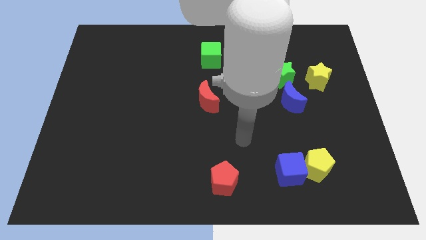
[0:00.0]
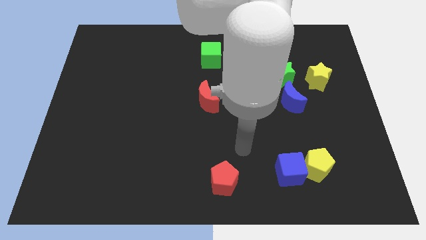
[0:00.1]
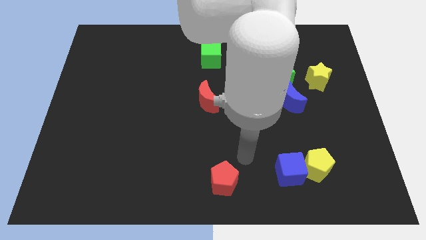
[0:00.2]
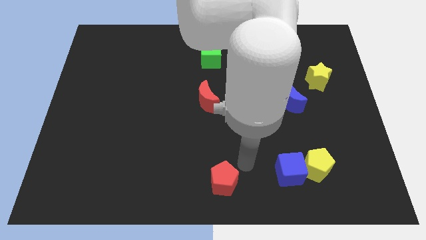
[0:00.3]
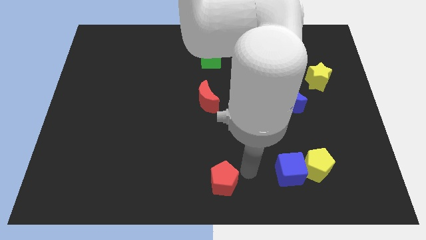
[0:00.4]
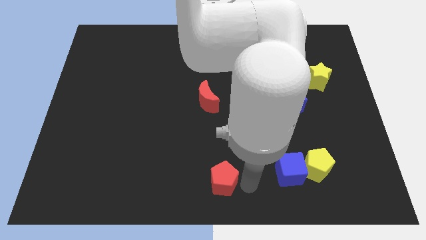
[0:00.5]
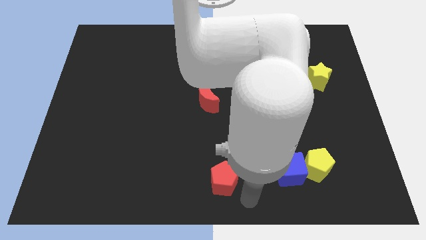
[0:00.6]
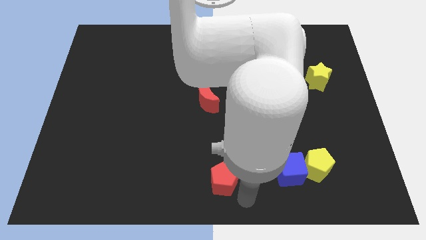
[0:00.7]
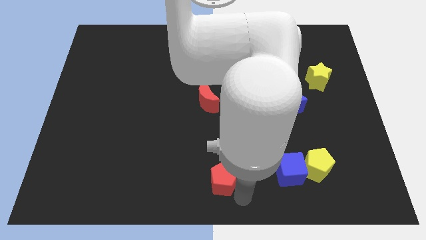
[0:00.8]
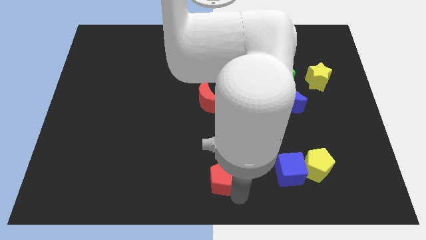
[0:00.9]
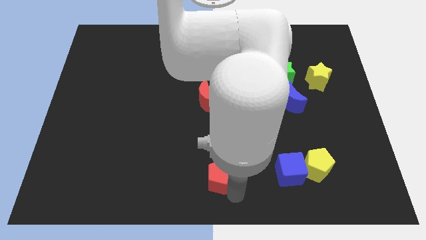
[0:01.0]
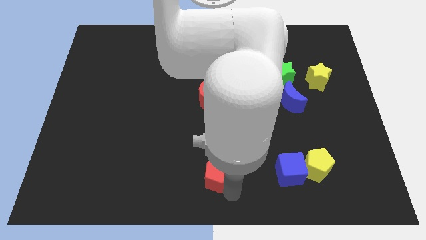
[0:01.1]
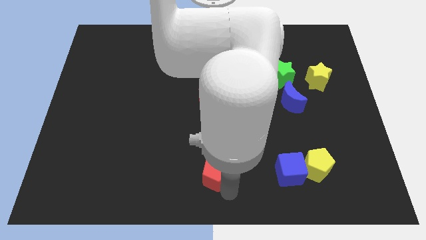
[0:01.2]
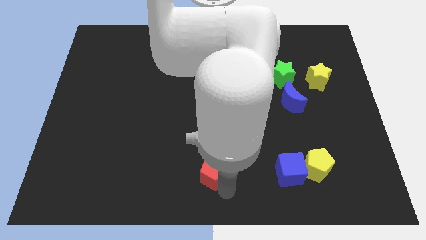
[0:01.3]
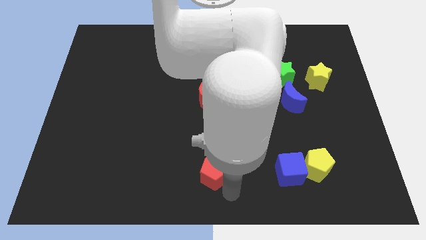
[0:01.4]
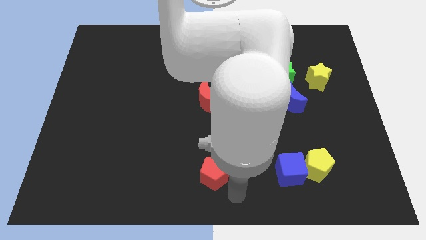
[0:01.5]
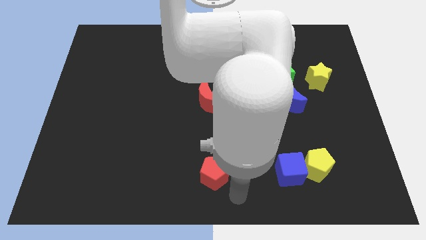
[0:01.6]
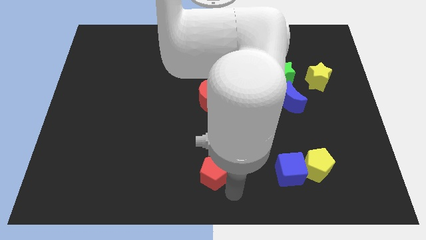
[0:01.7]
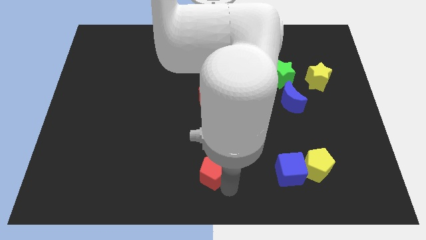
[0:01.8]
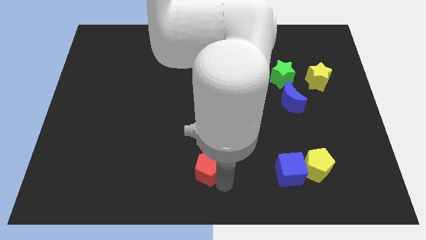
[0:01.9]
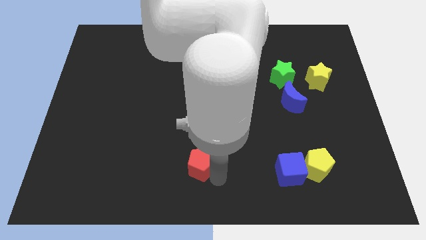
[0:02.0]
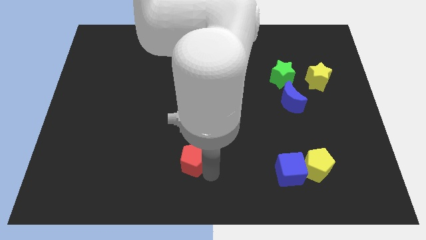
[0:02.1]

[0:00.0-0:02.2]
slide the red pentagon a bit upwards and to the left diagonally

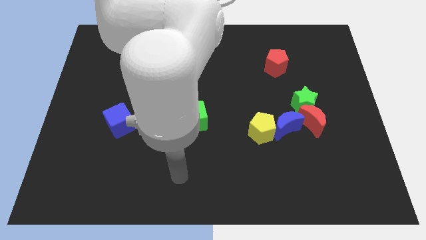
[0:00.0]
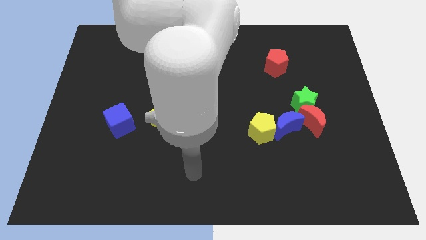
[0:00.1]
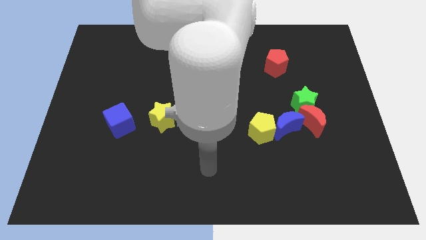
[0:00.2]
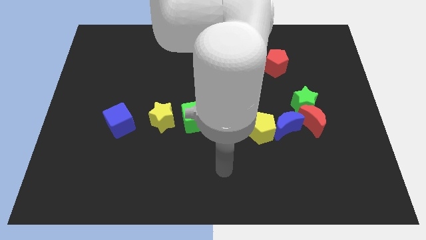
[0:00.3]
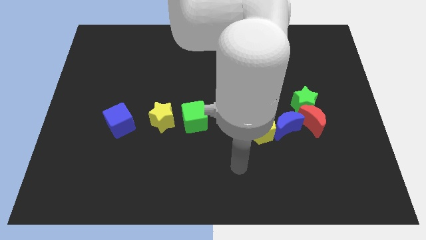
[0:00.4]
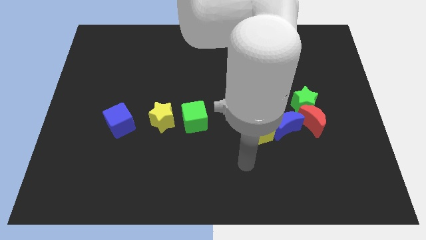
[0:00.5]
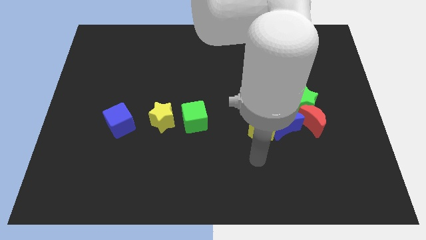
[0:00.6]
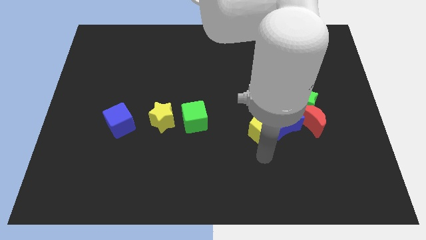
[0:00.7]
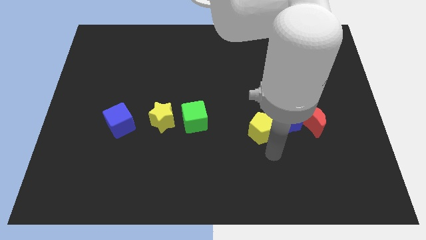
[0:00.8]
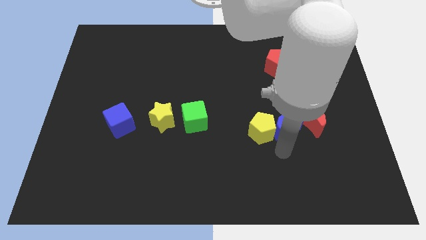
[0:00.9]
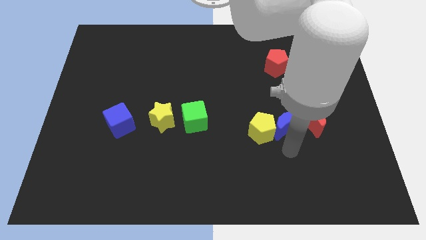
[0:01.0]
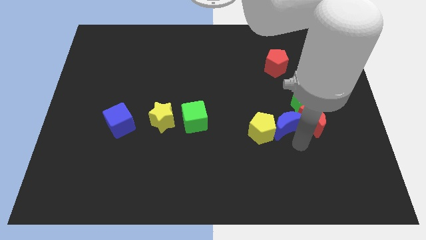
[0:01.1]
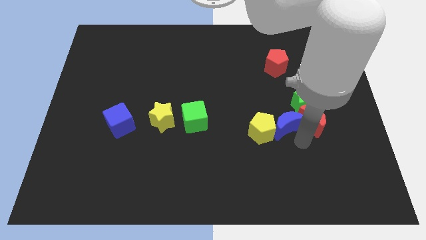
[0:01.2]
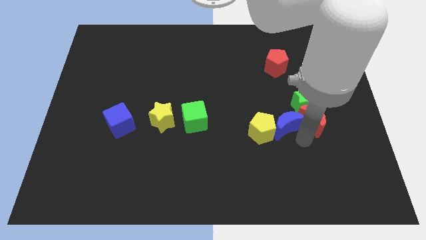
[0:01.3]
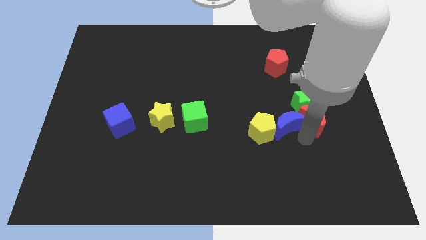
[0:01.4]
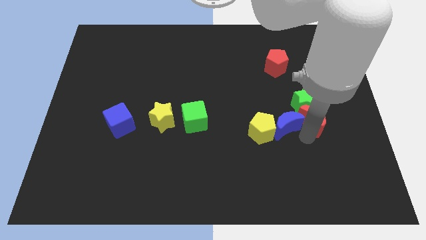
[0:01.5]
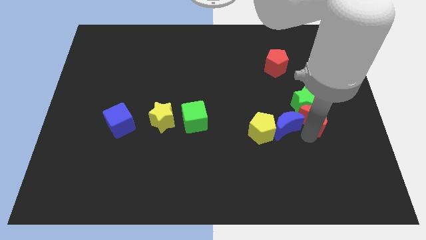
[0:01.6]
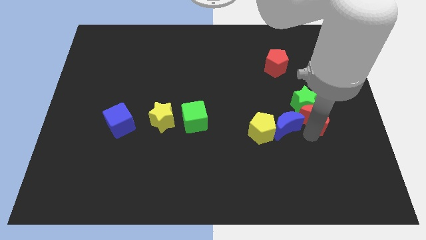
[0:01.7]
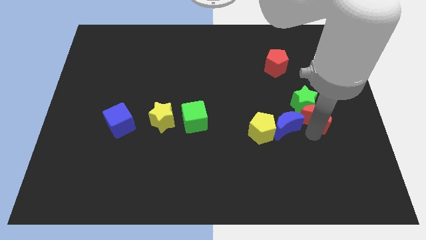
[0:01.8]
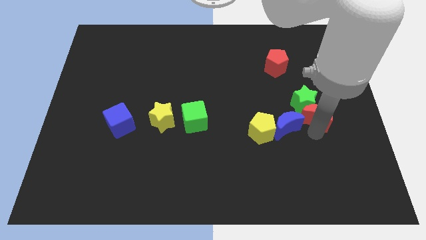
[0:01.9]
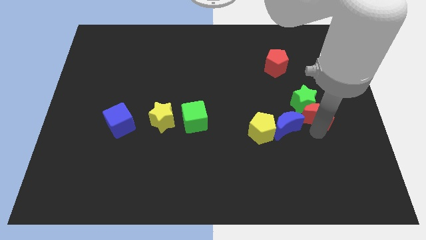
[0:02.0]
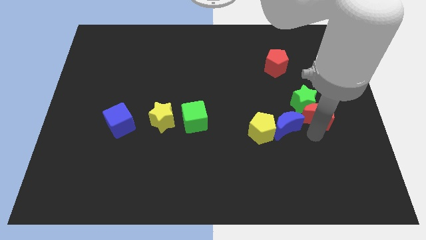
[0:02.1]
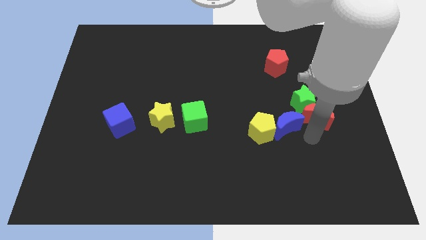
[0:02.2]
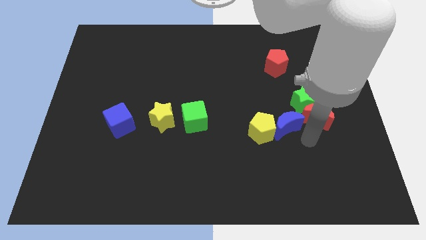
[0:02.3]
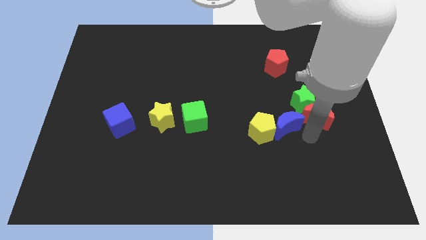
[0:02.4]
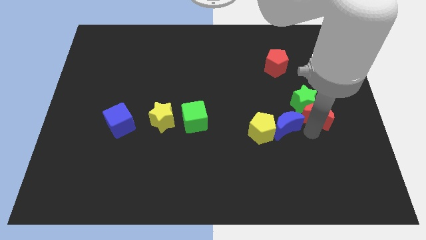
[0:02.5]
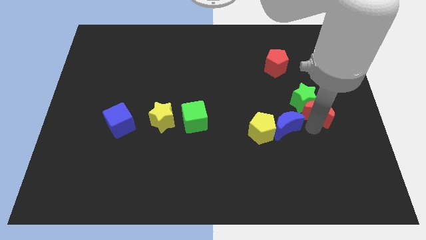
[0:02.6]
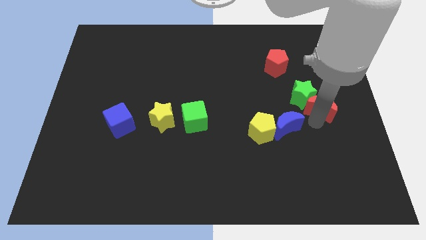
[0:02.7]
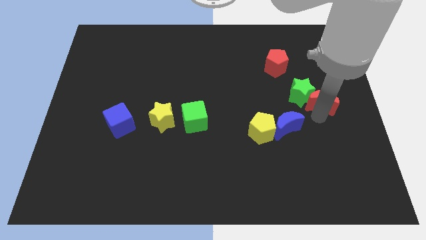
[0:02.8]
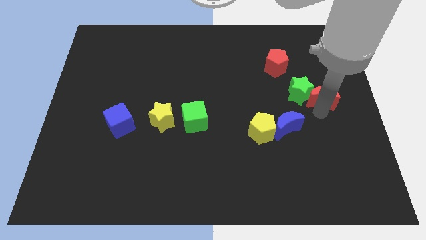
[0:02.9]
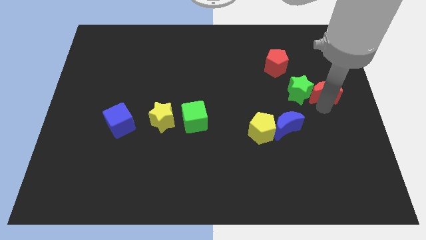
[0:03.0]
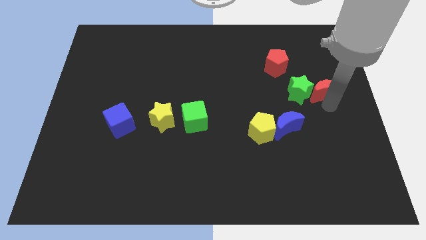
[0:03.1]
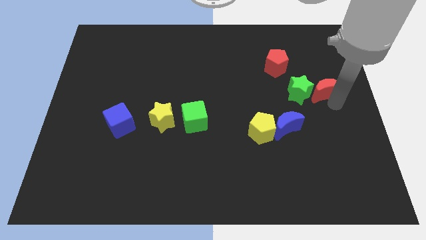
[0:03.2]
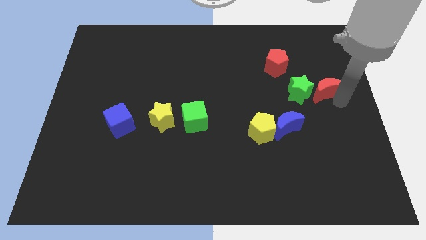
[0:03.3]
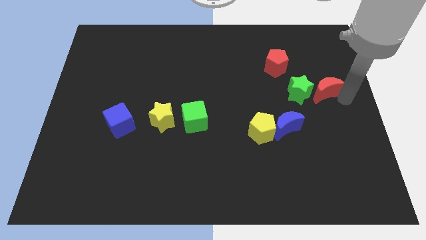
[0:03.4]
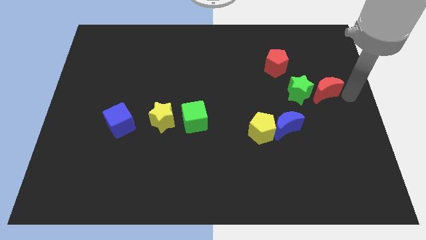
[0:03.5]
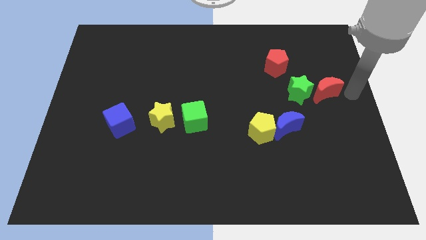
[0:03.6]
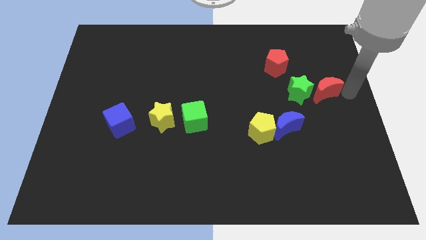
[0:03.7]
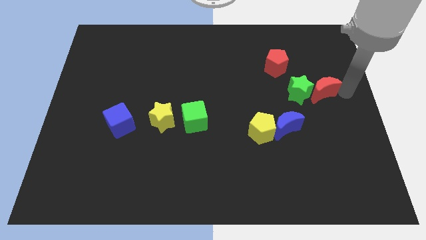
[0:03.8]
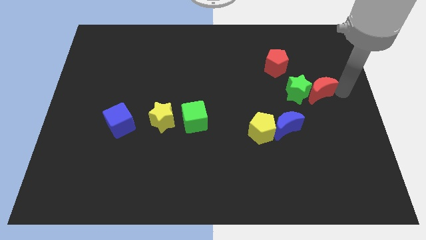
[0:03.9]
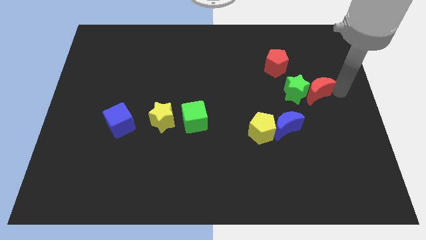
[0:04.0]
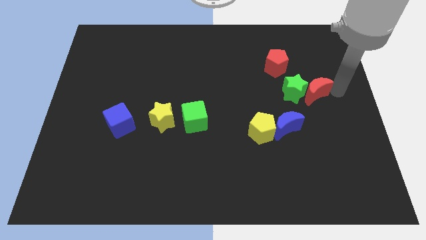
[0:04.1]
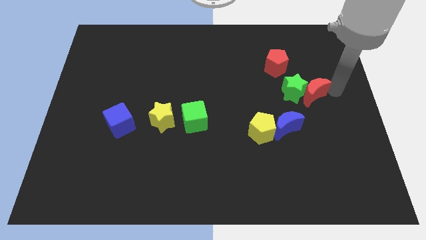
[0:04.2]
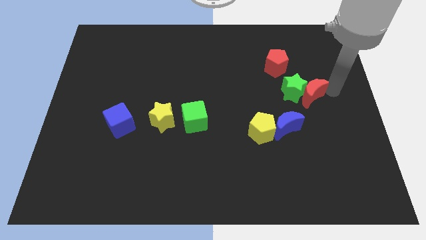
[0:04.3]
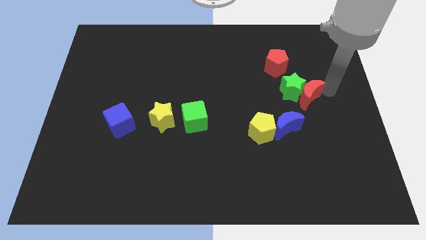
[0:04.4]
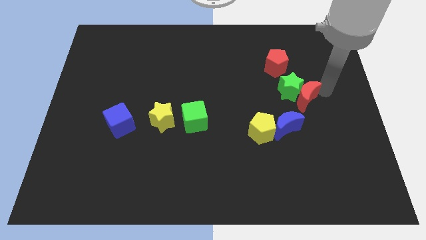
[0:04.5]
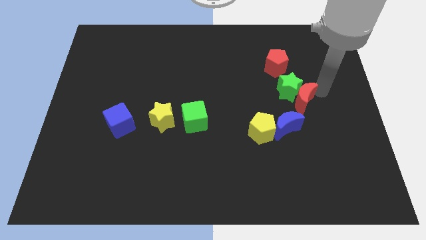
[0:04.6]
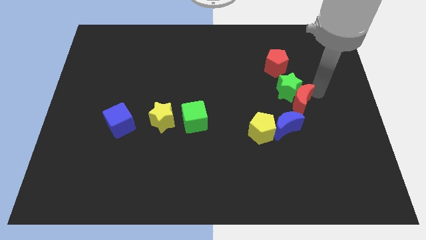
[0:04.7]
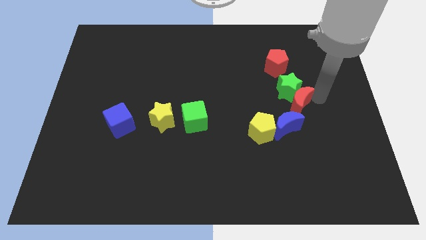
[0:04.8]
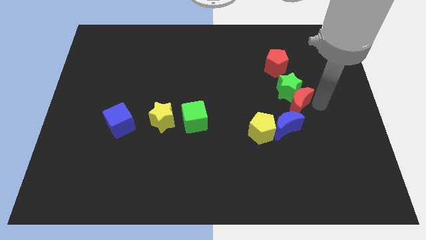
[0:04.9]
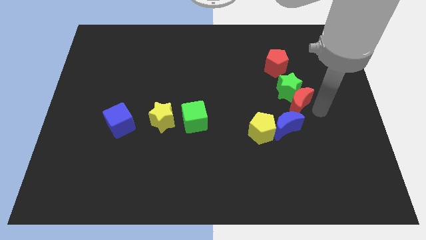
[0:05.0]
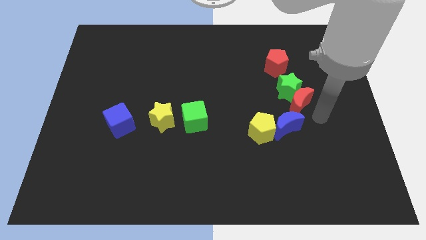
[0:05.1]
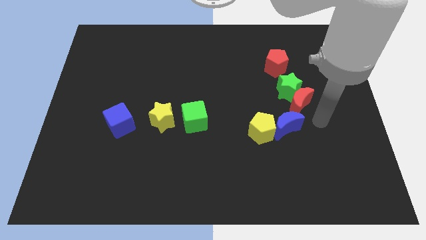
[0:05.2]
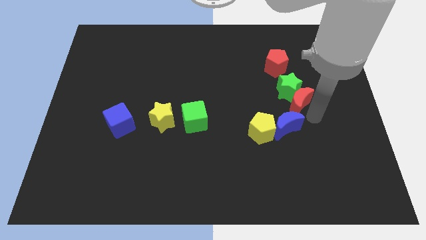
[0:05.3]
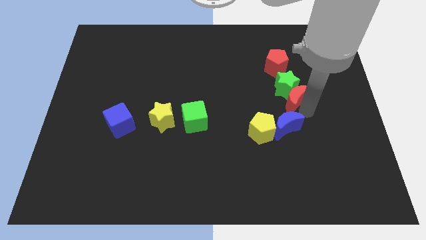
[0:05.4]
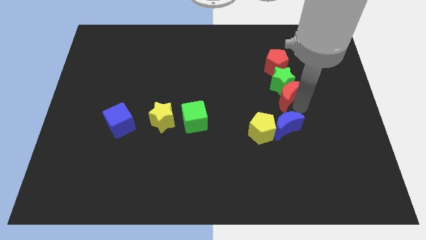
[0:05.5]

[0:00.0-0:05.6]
slightly move the red moon up and then left
